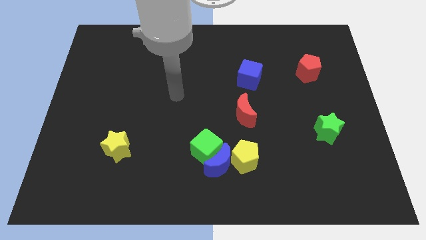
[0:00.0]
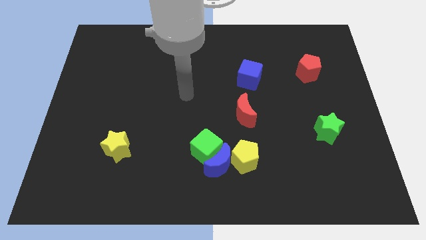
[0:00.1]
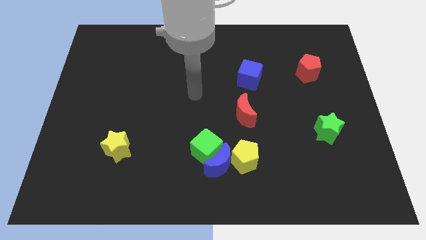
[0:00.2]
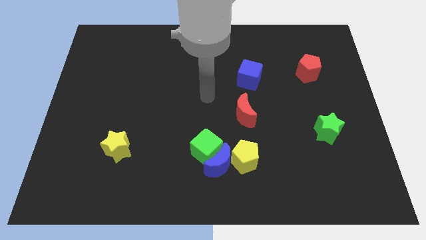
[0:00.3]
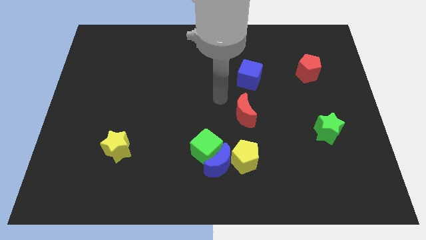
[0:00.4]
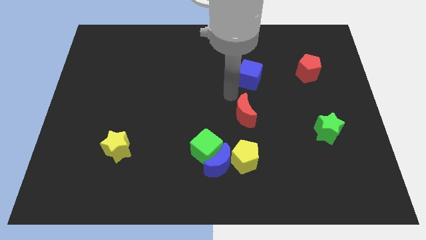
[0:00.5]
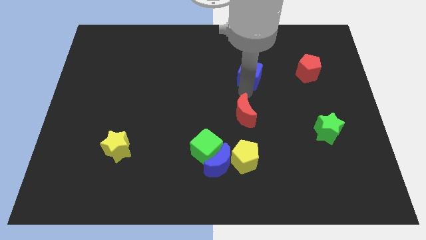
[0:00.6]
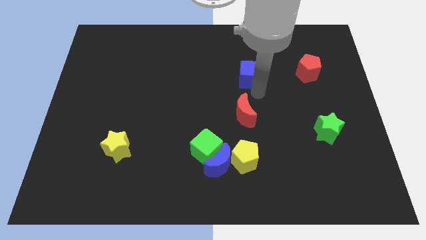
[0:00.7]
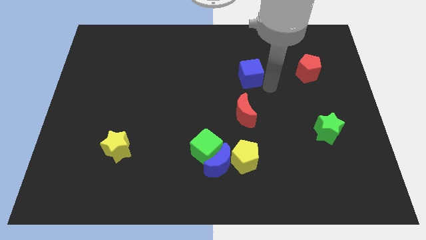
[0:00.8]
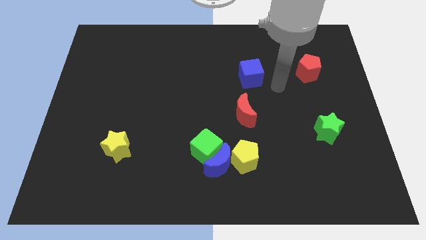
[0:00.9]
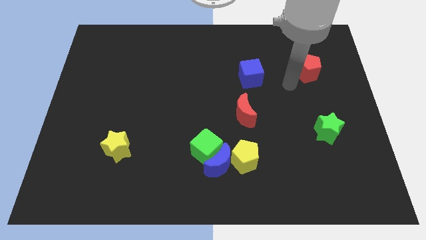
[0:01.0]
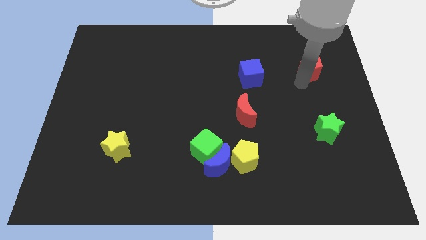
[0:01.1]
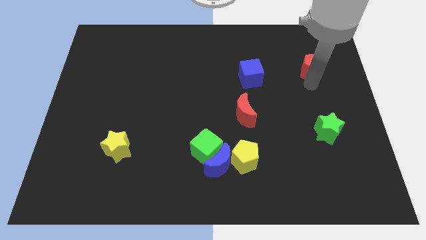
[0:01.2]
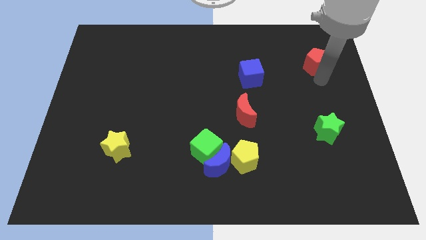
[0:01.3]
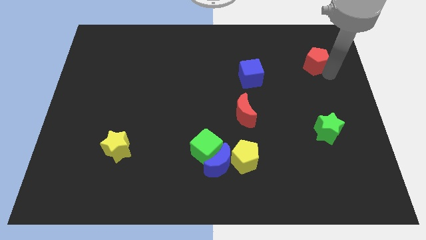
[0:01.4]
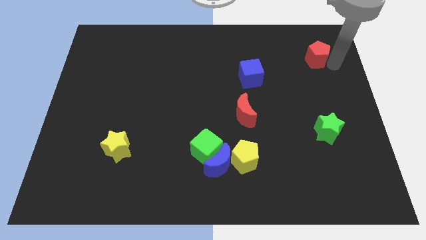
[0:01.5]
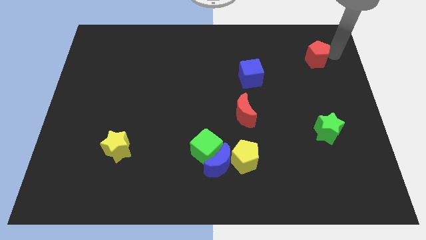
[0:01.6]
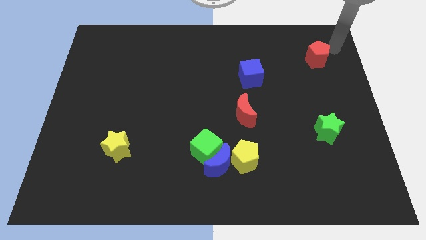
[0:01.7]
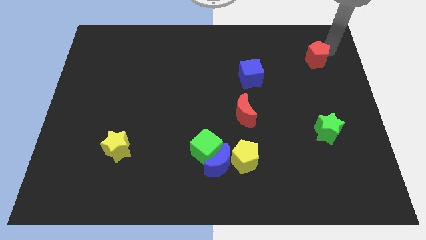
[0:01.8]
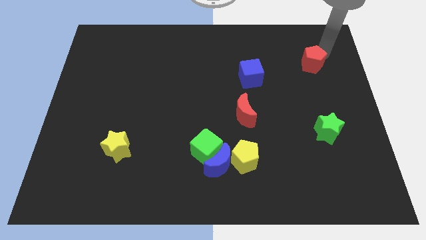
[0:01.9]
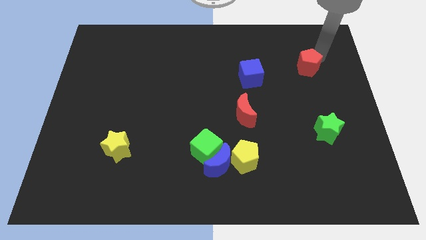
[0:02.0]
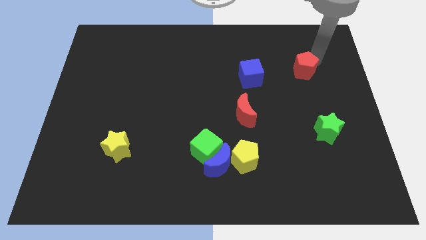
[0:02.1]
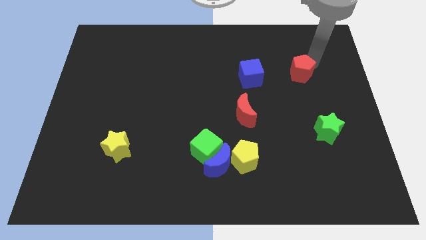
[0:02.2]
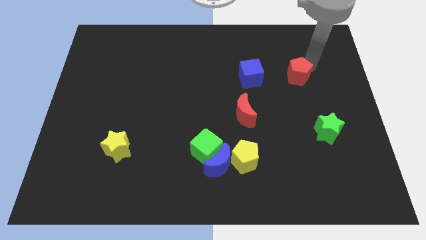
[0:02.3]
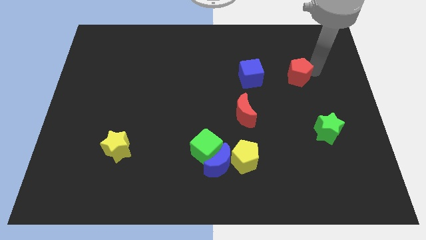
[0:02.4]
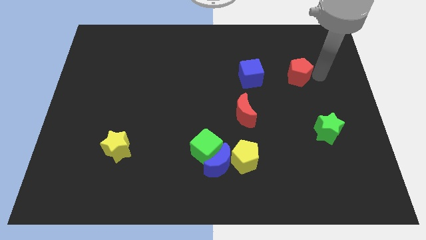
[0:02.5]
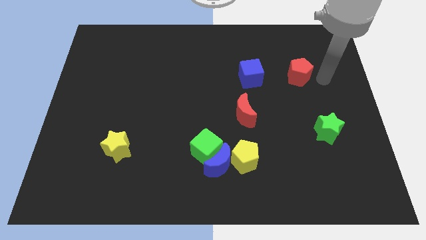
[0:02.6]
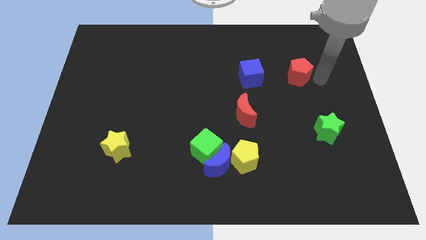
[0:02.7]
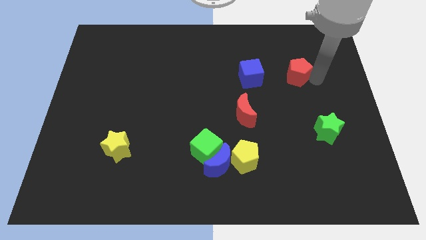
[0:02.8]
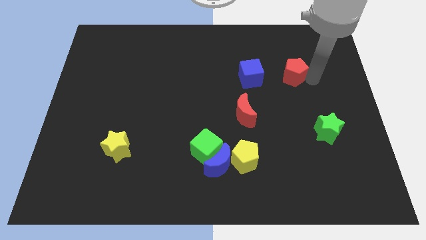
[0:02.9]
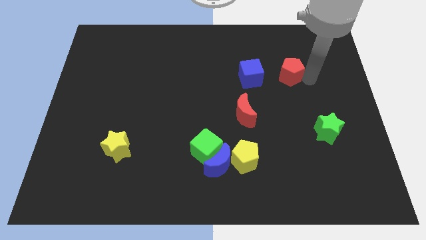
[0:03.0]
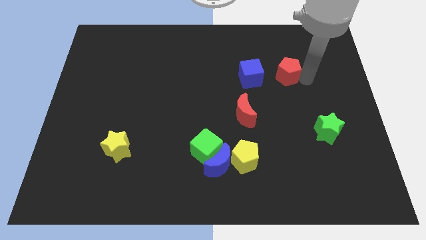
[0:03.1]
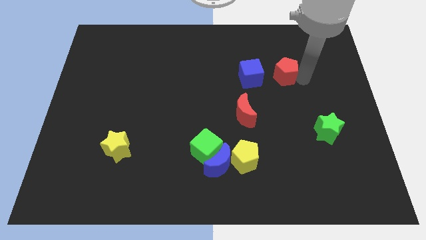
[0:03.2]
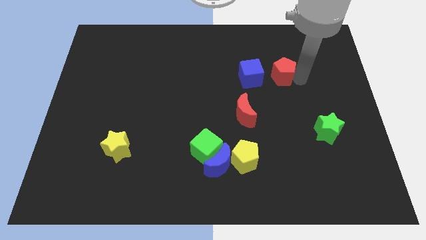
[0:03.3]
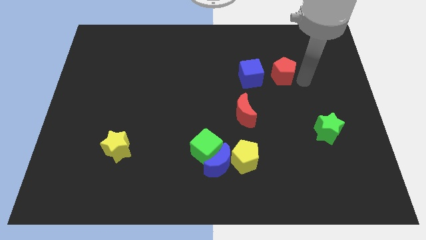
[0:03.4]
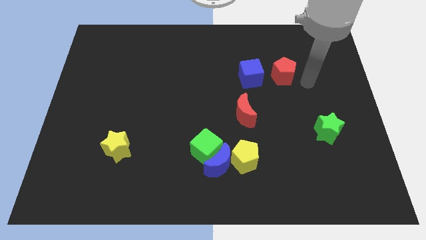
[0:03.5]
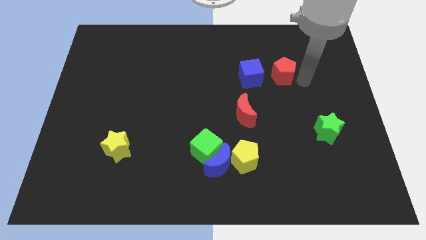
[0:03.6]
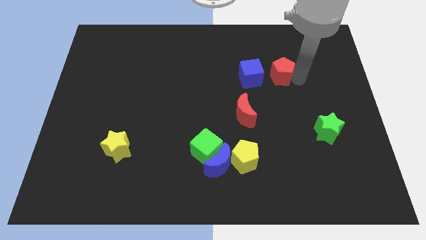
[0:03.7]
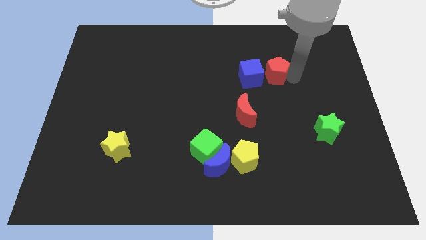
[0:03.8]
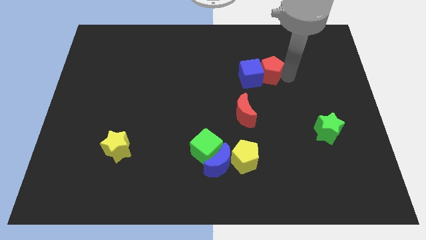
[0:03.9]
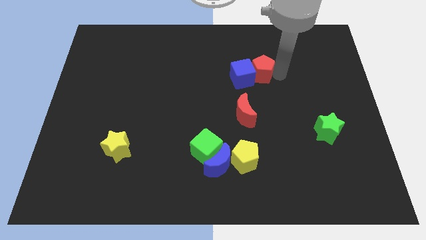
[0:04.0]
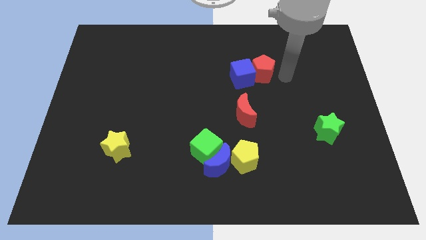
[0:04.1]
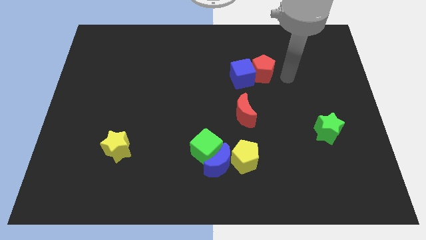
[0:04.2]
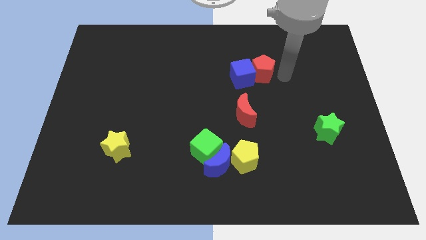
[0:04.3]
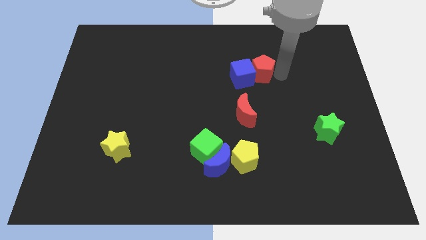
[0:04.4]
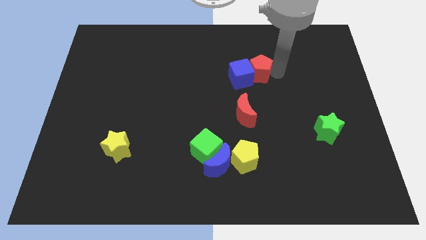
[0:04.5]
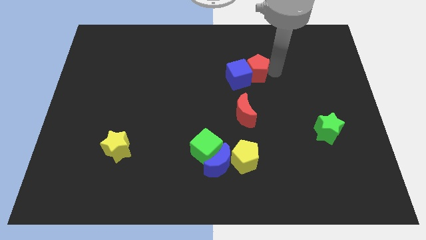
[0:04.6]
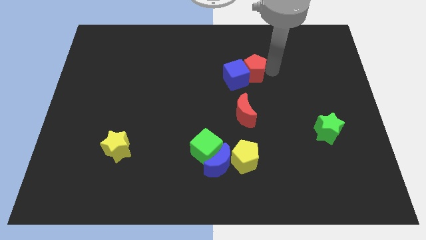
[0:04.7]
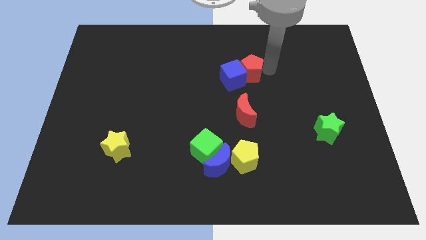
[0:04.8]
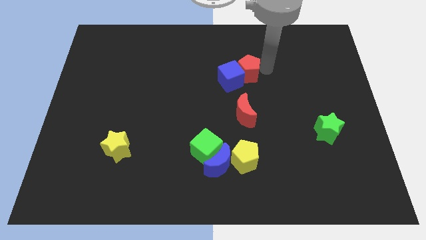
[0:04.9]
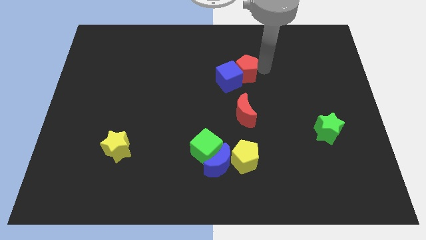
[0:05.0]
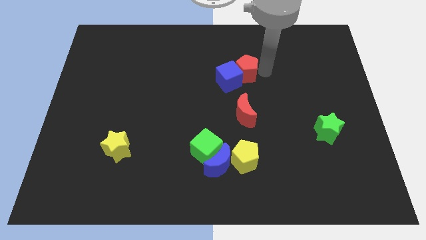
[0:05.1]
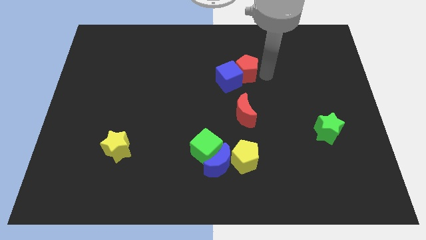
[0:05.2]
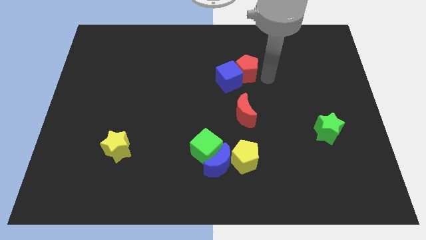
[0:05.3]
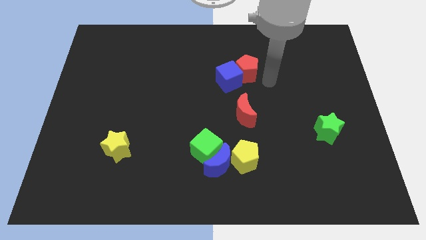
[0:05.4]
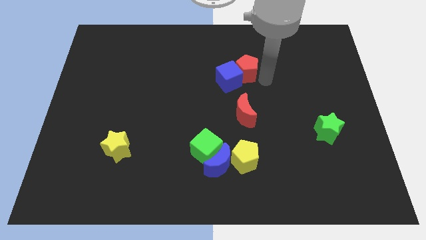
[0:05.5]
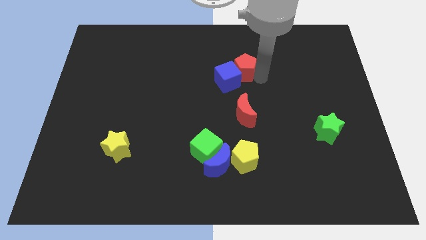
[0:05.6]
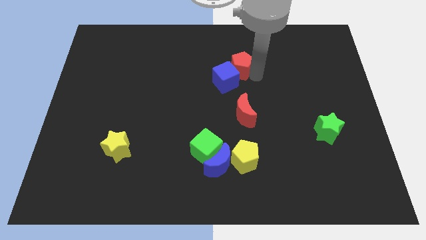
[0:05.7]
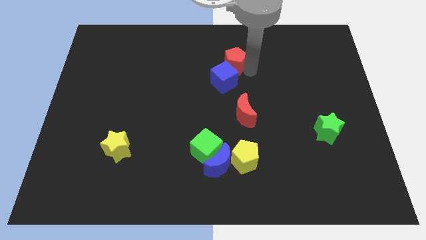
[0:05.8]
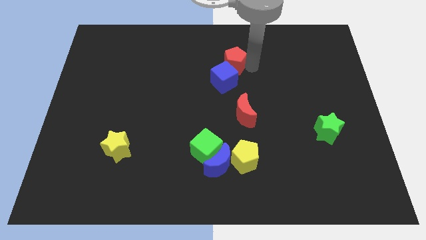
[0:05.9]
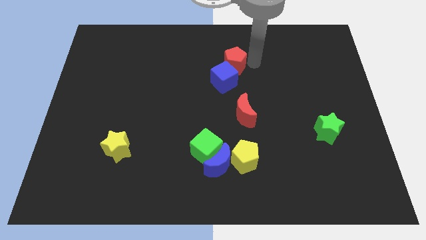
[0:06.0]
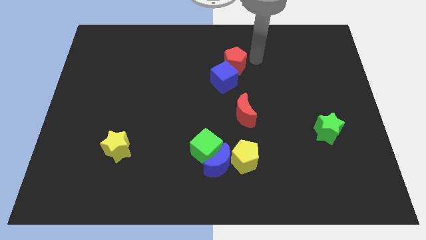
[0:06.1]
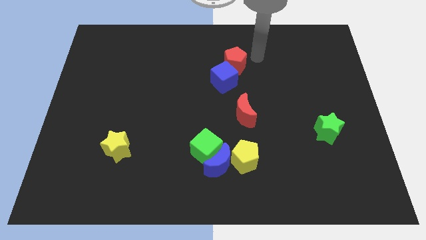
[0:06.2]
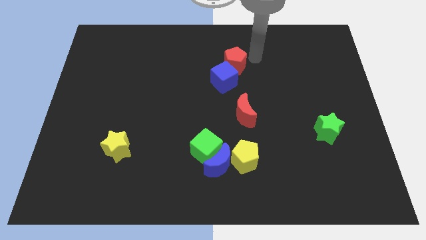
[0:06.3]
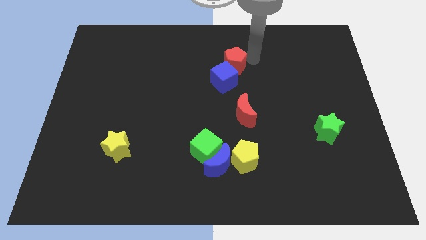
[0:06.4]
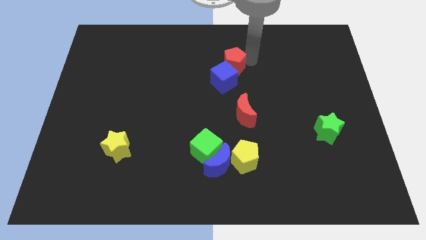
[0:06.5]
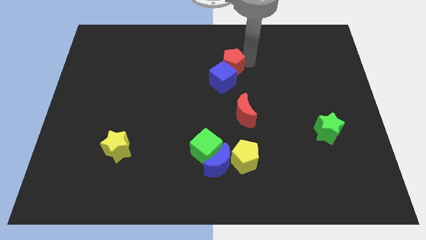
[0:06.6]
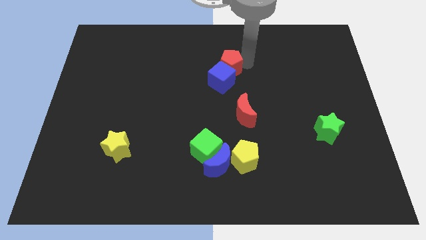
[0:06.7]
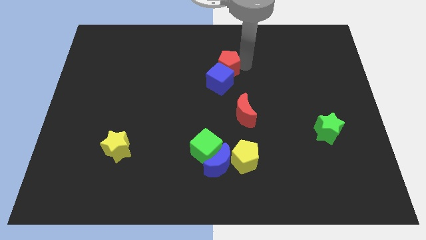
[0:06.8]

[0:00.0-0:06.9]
push the red pentagon to the left

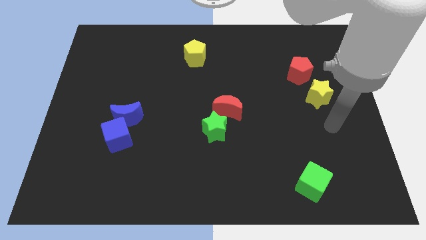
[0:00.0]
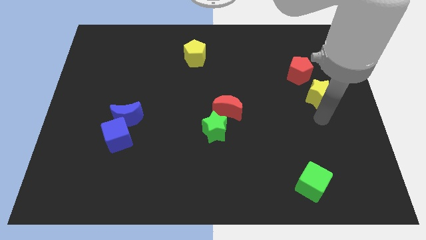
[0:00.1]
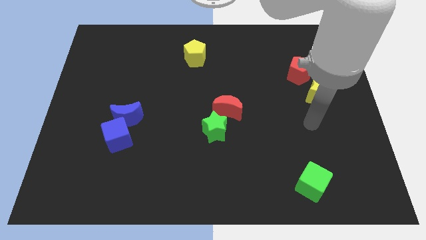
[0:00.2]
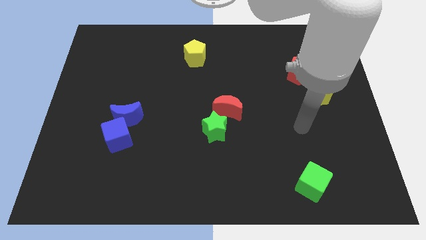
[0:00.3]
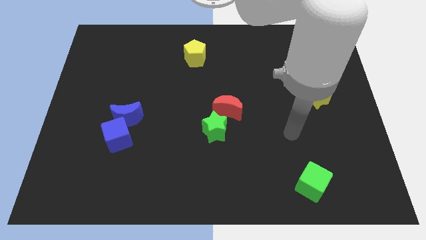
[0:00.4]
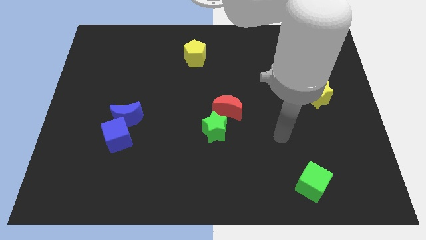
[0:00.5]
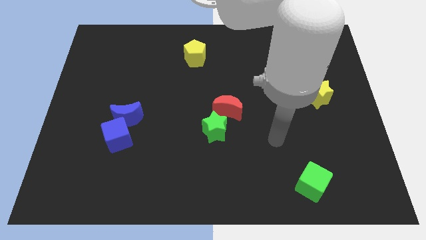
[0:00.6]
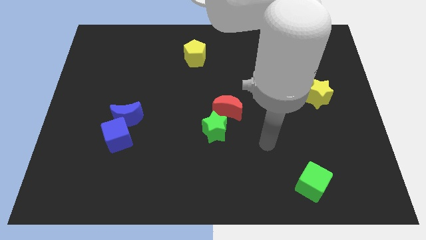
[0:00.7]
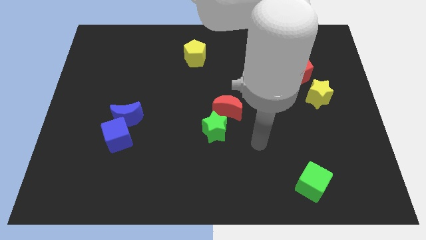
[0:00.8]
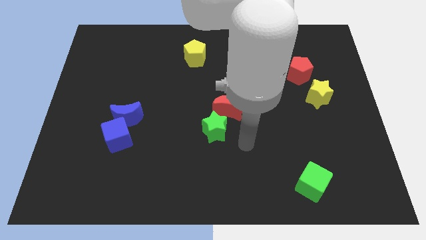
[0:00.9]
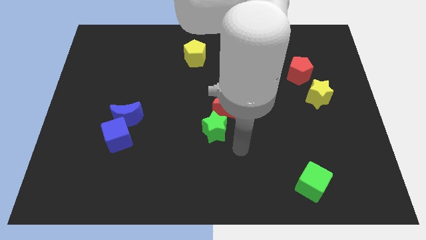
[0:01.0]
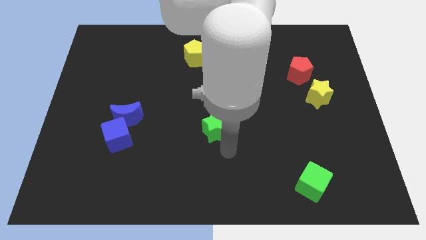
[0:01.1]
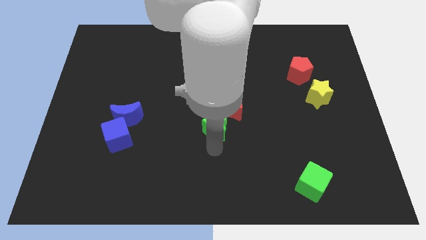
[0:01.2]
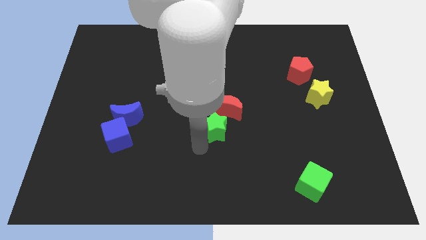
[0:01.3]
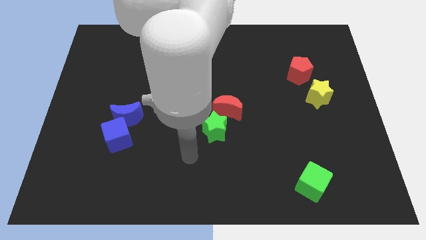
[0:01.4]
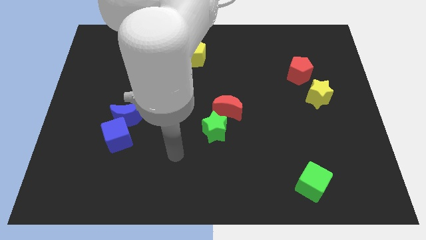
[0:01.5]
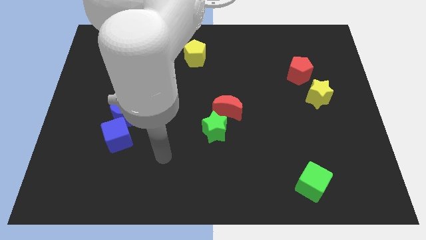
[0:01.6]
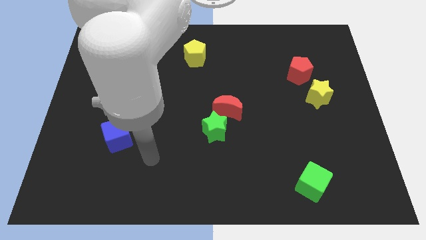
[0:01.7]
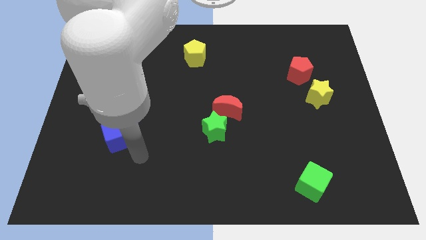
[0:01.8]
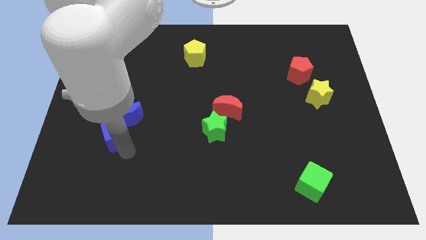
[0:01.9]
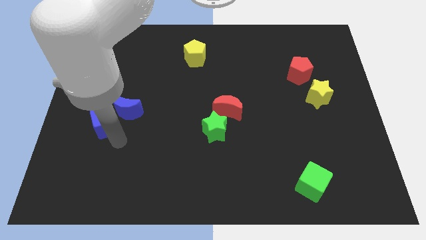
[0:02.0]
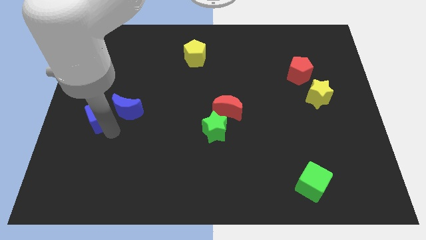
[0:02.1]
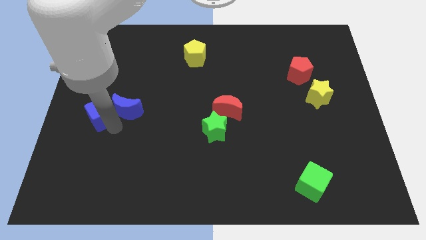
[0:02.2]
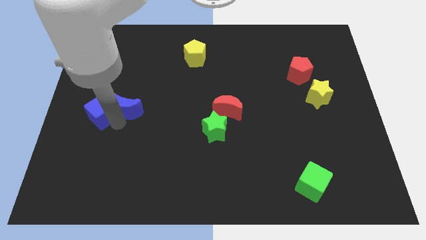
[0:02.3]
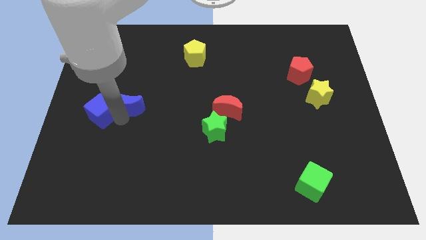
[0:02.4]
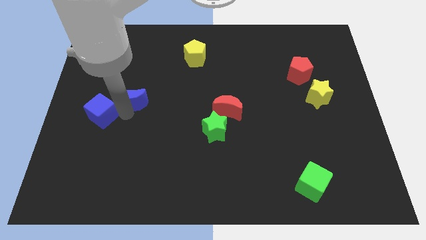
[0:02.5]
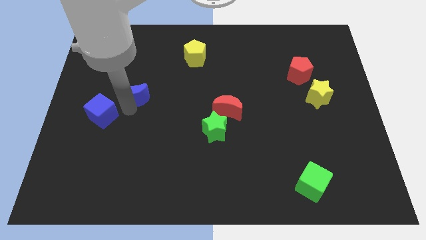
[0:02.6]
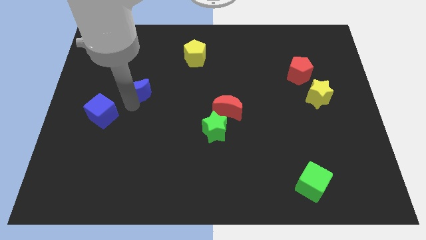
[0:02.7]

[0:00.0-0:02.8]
slightly push the blue moon upwards
